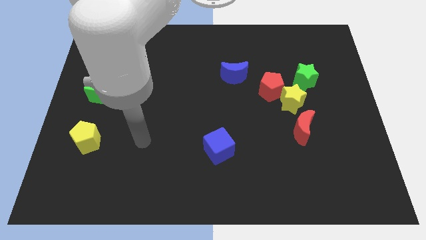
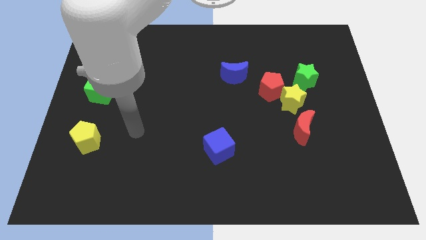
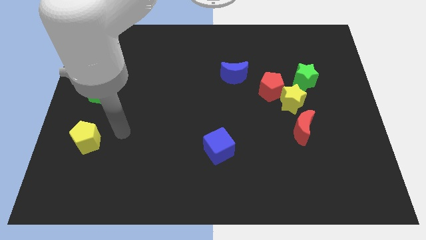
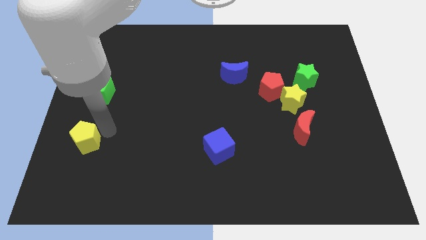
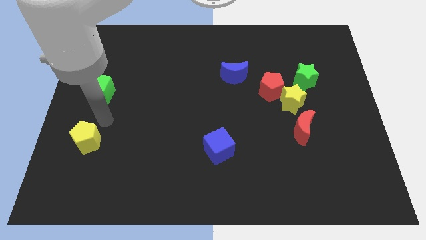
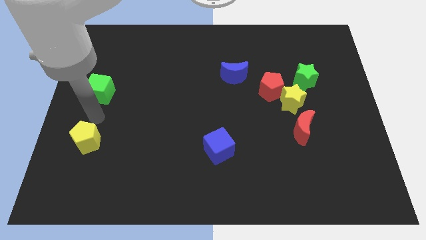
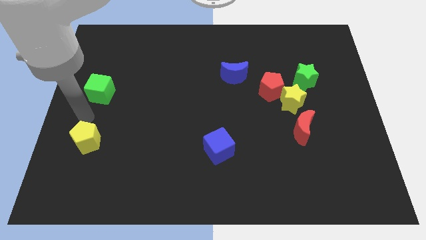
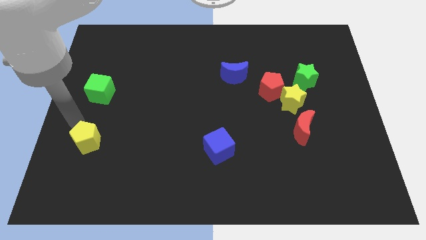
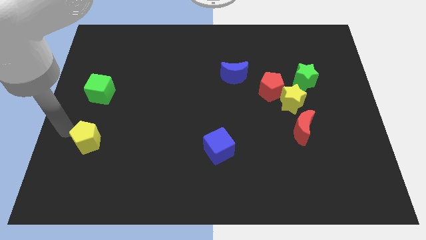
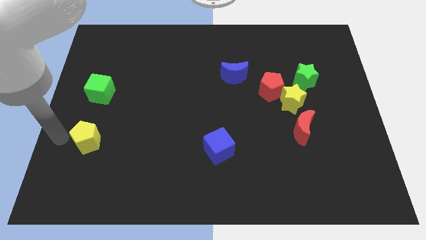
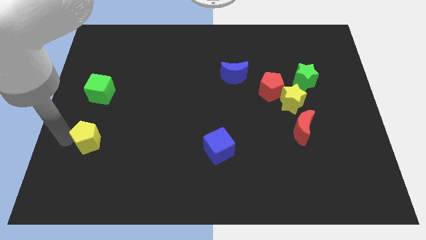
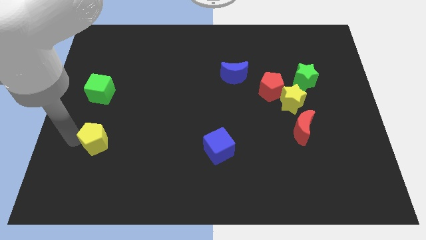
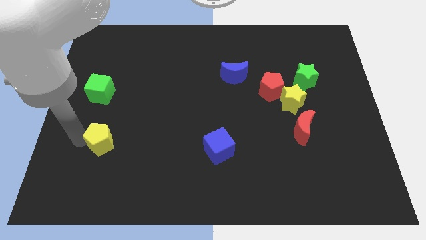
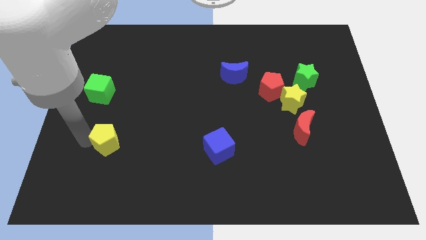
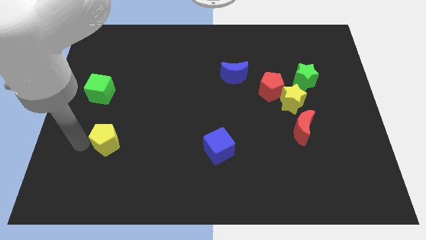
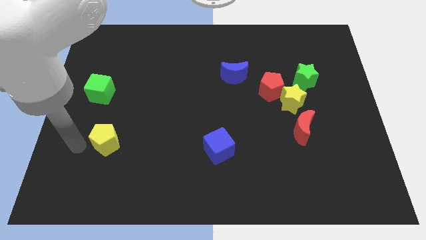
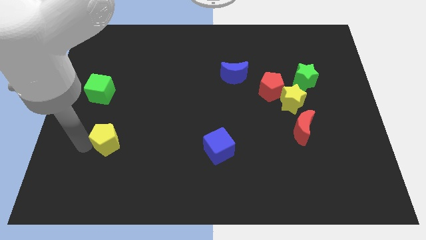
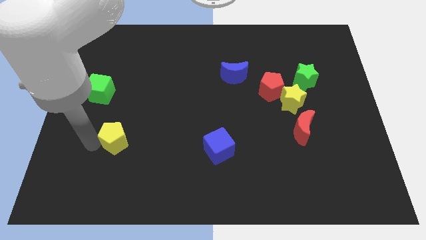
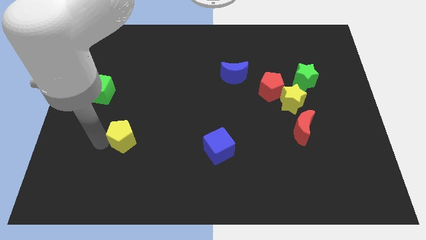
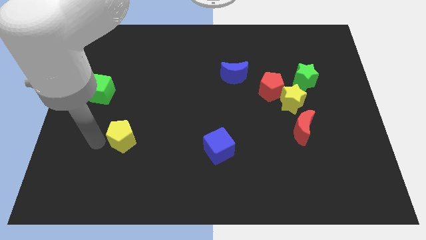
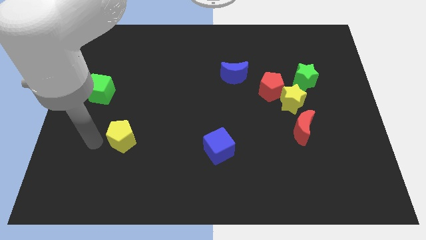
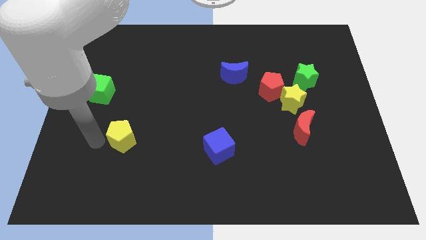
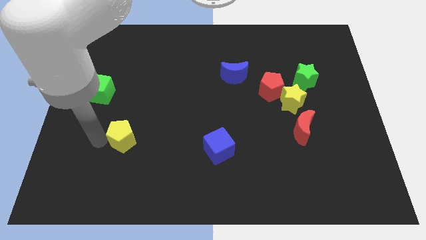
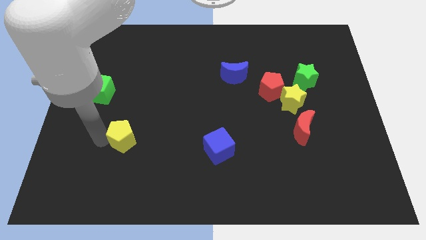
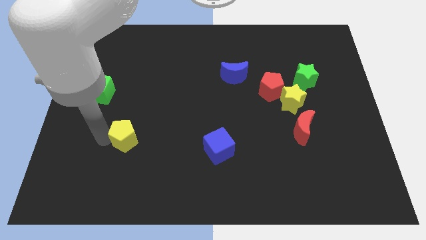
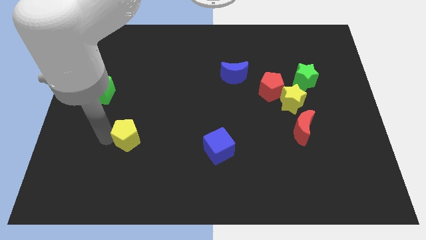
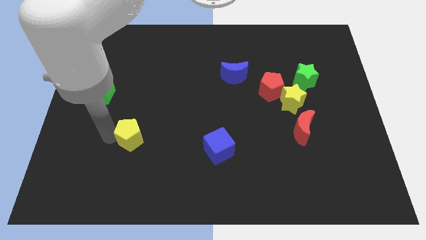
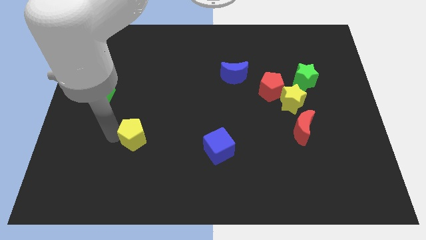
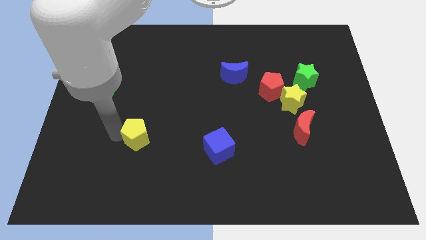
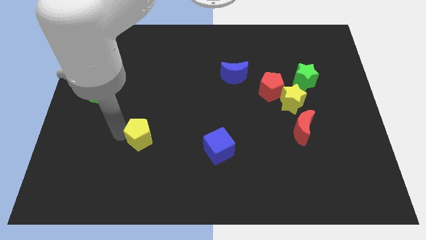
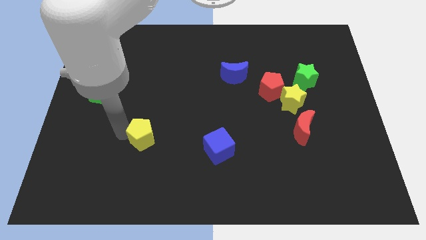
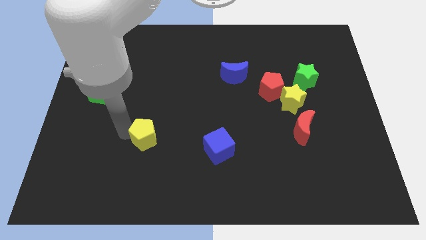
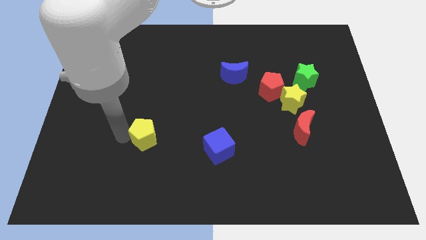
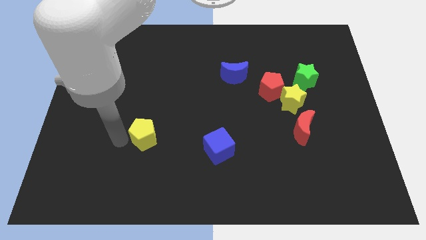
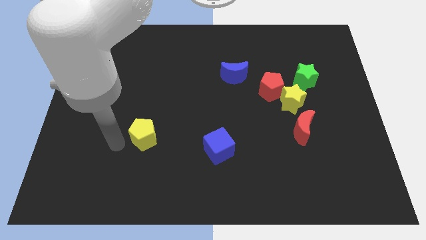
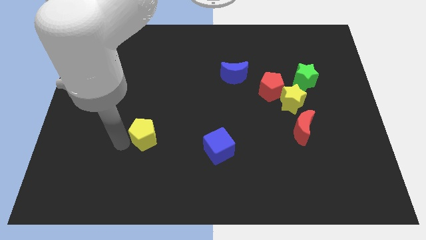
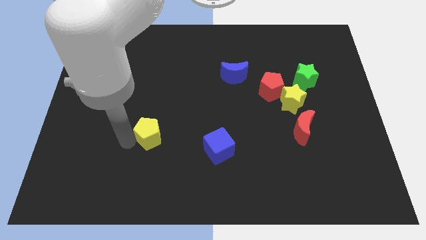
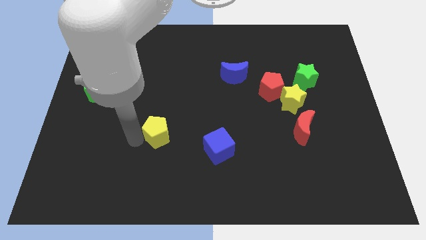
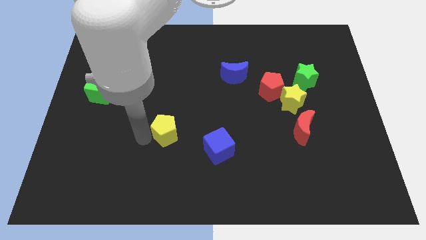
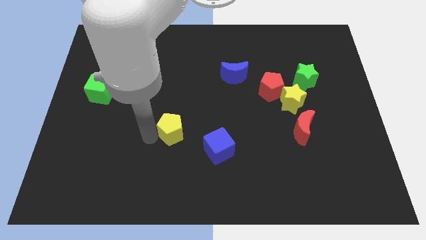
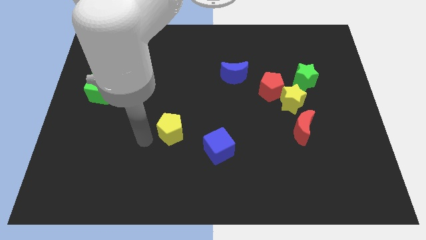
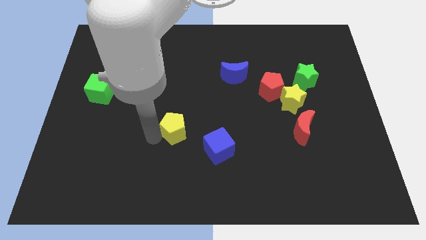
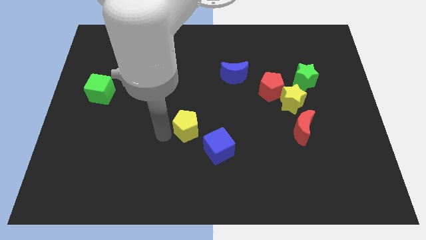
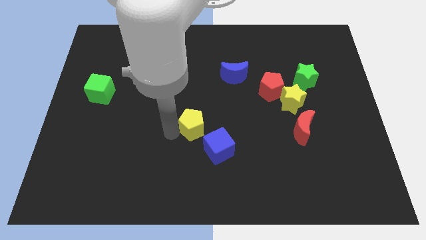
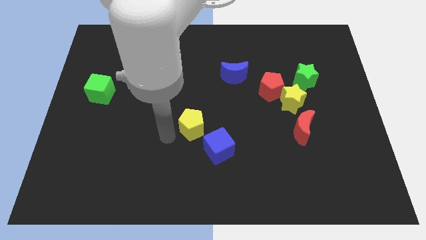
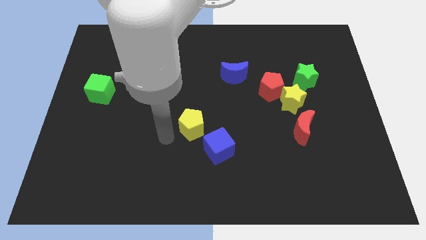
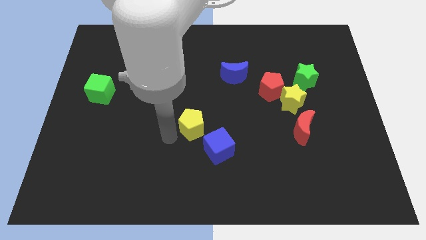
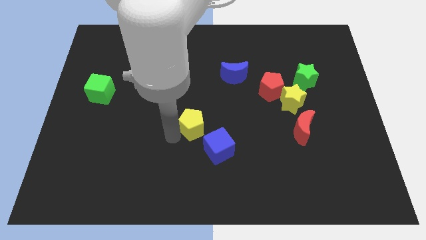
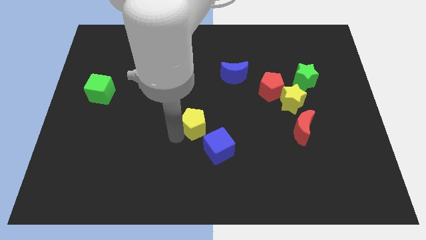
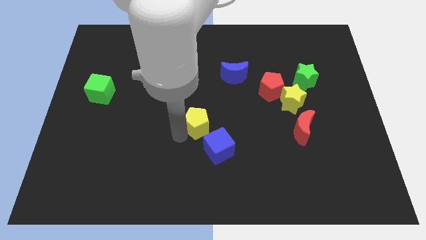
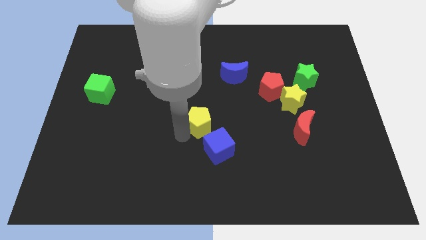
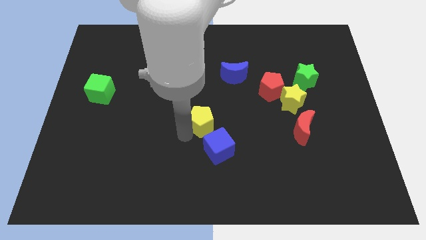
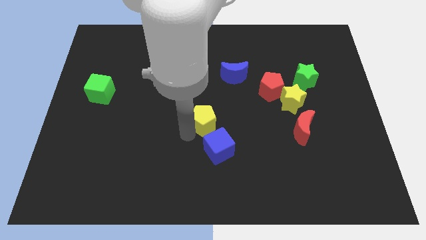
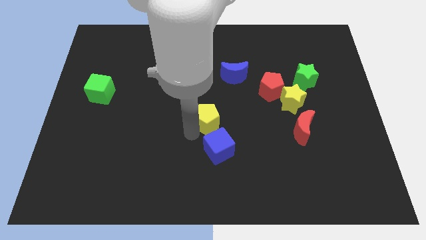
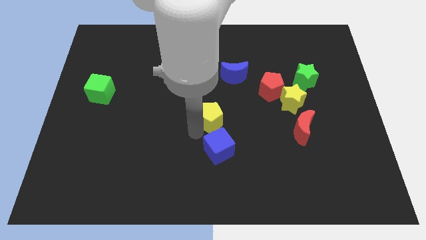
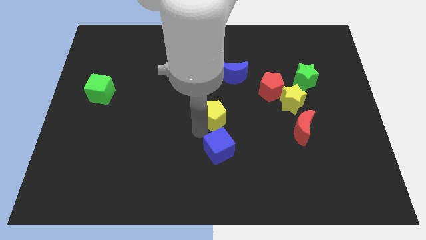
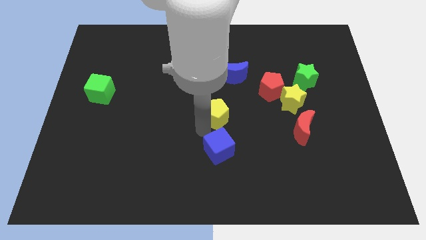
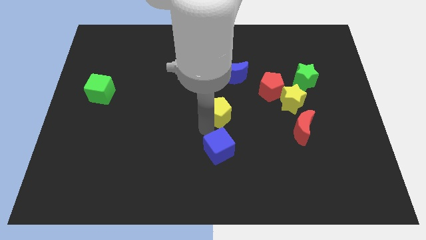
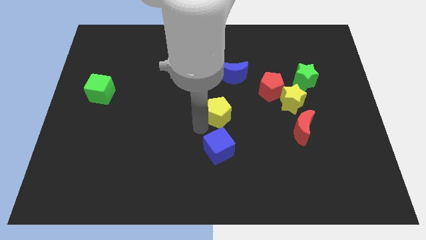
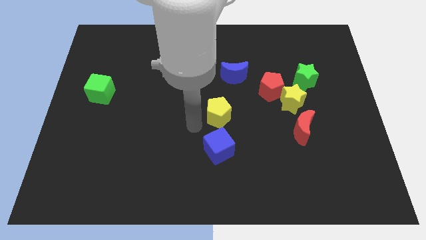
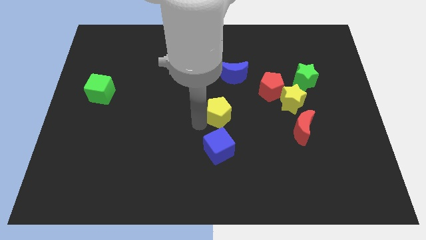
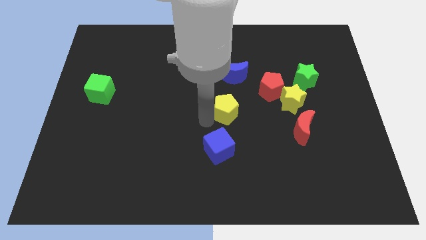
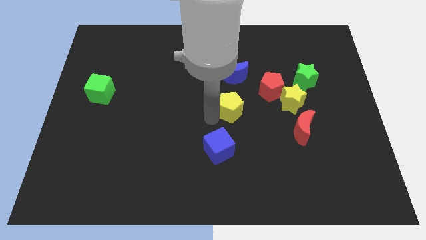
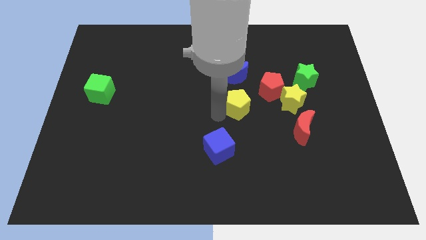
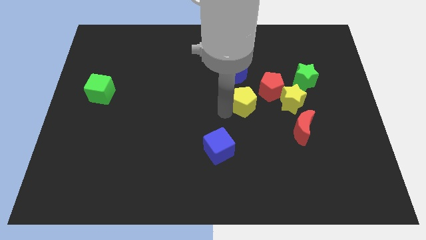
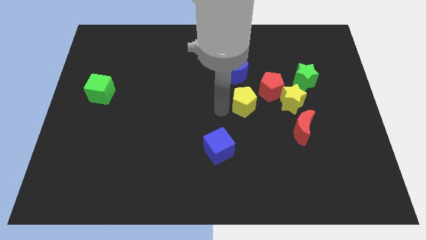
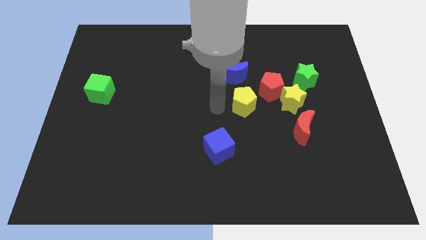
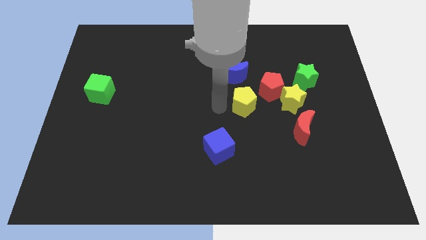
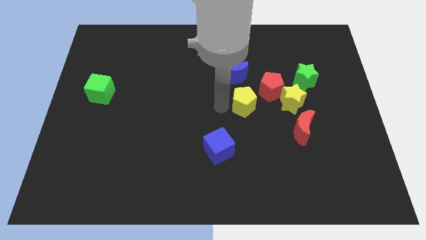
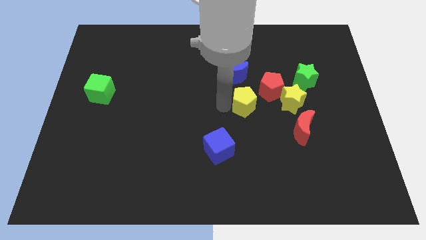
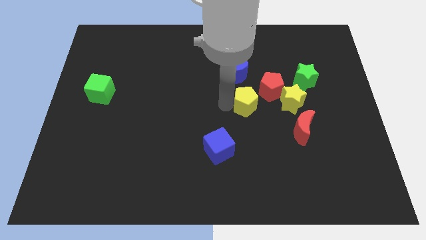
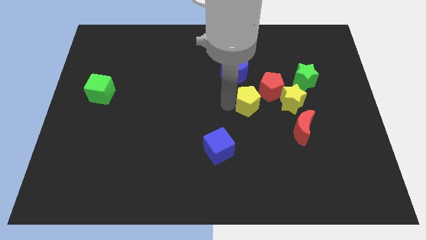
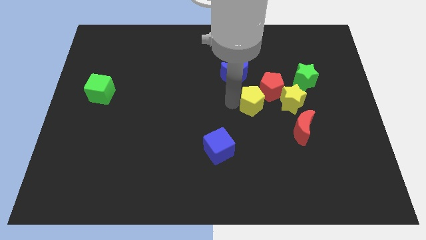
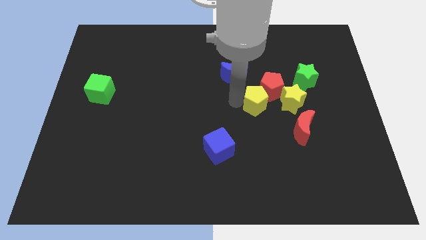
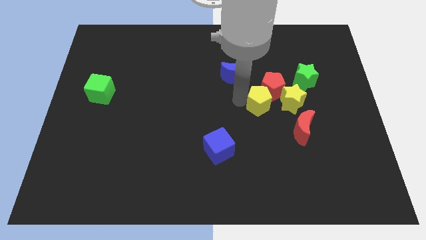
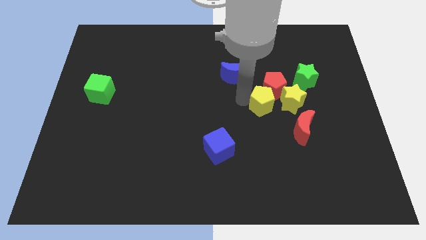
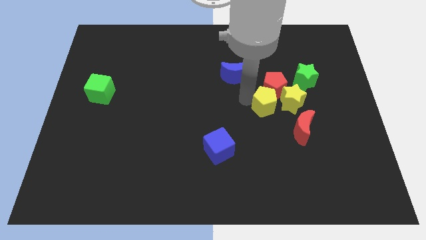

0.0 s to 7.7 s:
slide the yellow pentagon to the yellow star
